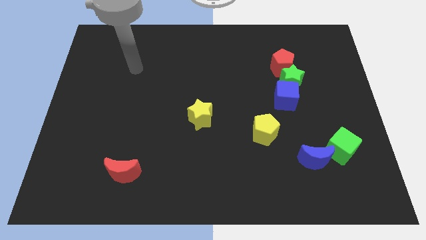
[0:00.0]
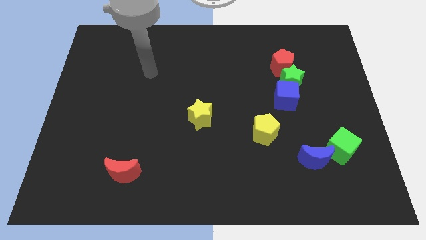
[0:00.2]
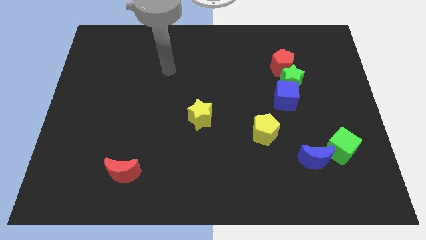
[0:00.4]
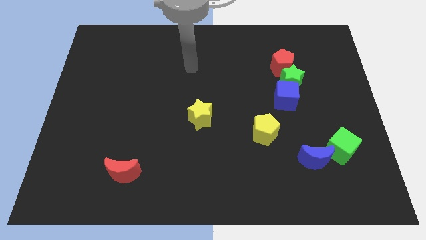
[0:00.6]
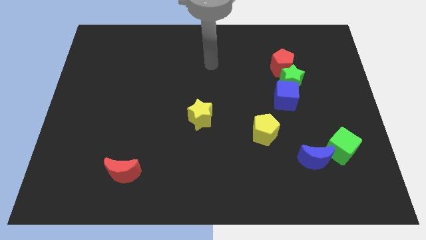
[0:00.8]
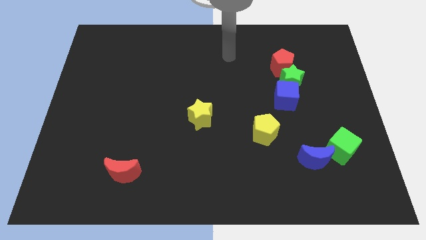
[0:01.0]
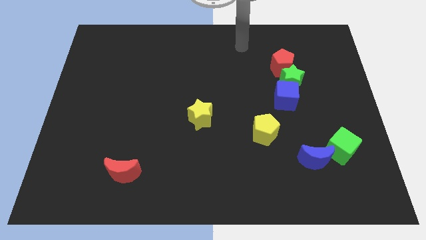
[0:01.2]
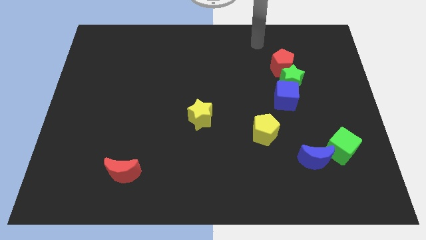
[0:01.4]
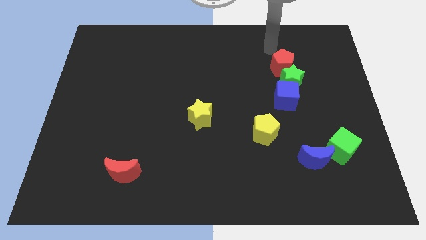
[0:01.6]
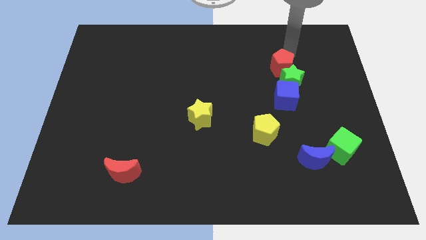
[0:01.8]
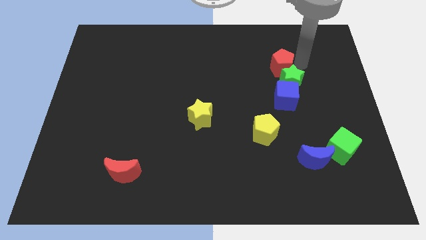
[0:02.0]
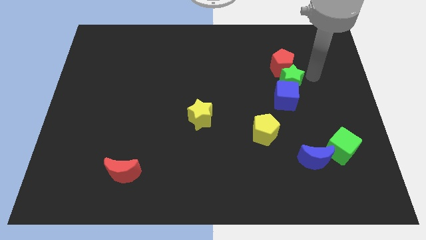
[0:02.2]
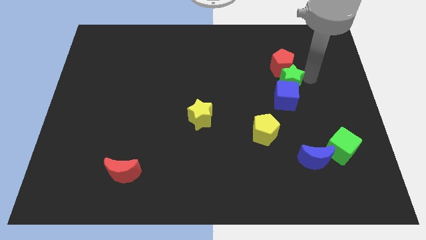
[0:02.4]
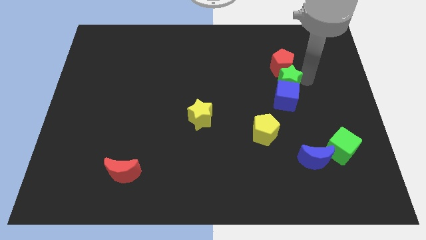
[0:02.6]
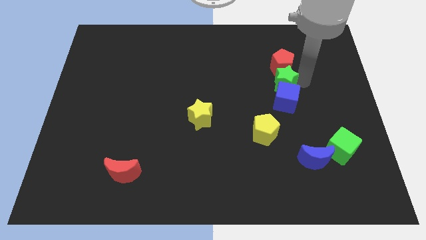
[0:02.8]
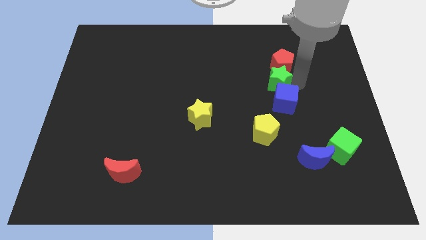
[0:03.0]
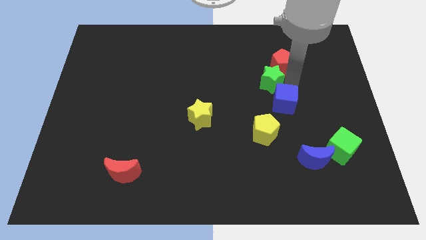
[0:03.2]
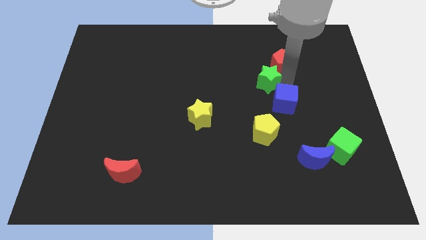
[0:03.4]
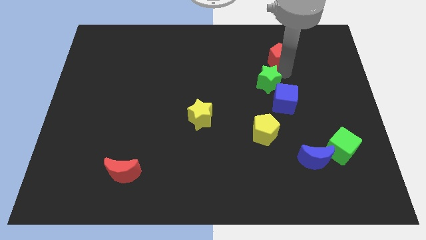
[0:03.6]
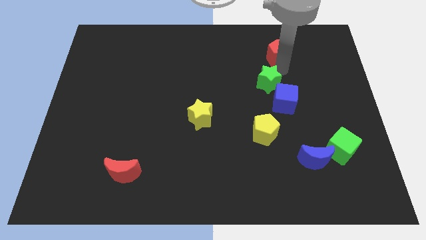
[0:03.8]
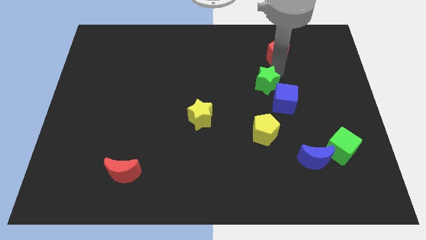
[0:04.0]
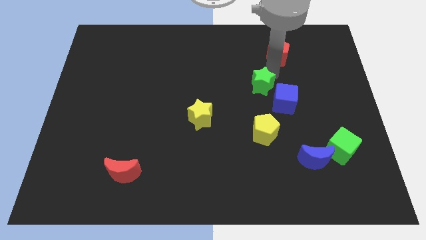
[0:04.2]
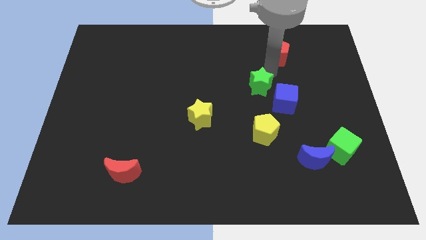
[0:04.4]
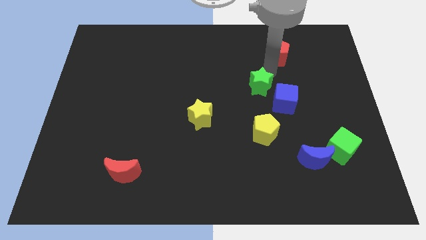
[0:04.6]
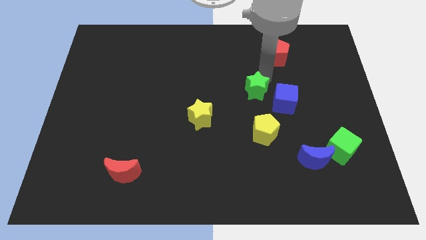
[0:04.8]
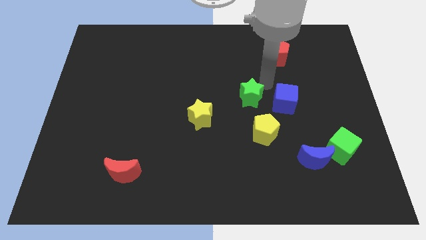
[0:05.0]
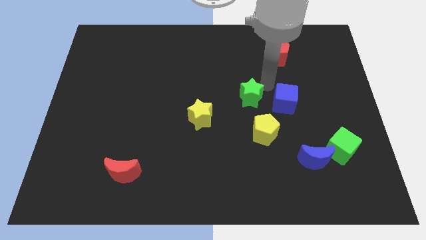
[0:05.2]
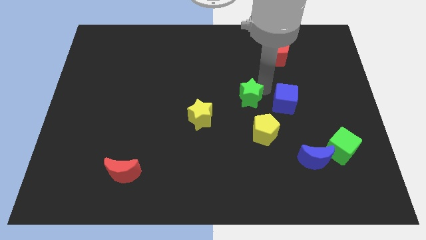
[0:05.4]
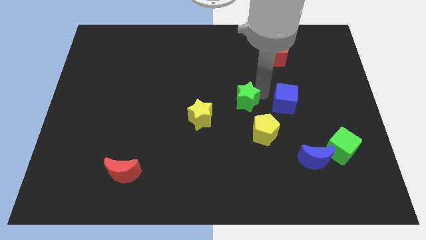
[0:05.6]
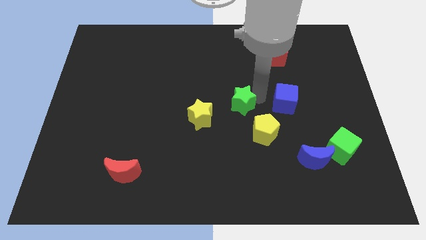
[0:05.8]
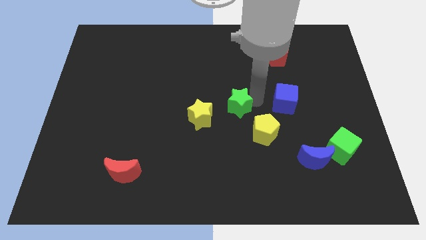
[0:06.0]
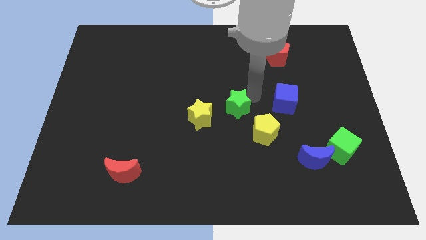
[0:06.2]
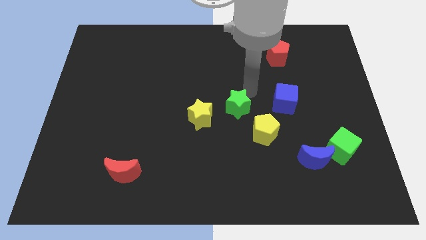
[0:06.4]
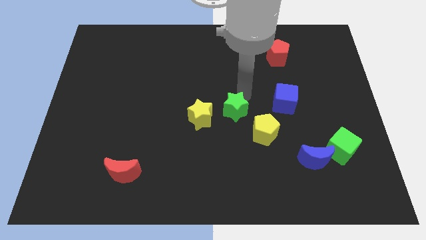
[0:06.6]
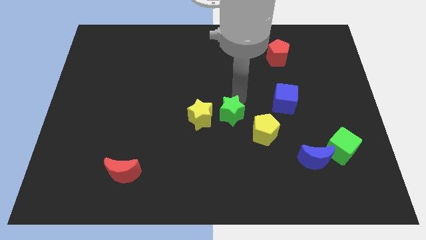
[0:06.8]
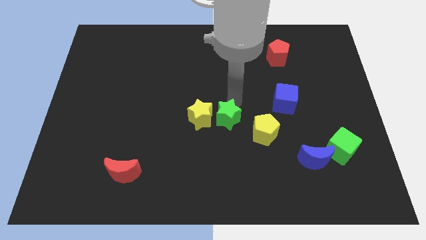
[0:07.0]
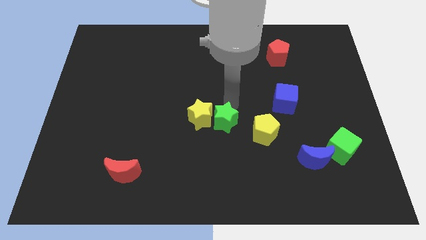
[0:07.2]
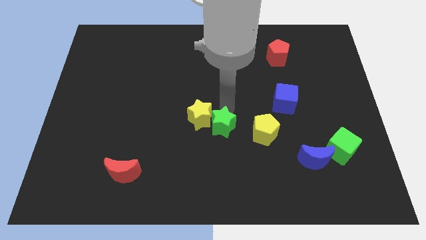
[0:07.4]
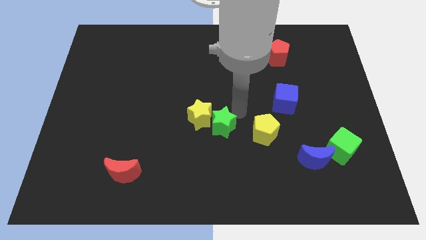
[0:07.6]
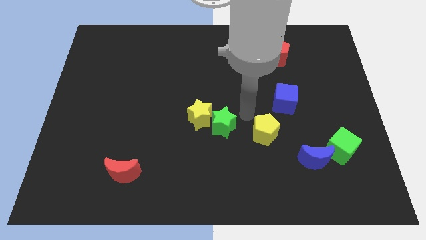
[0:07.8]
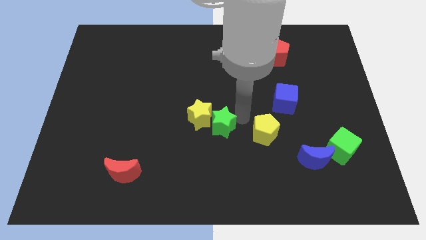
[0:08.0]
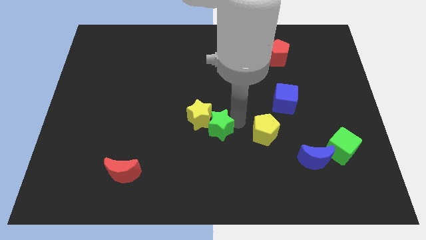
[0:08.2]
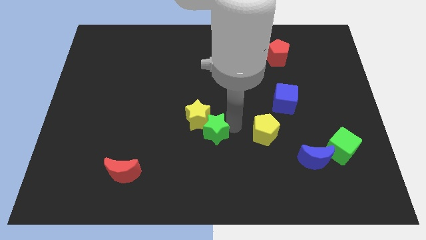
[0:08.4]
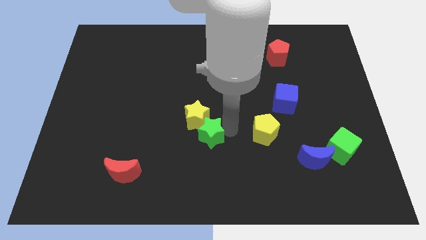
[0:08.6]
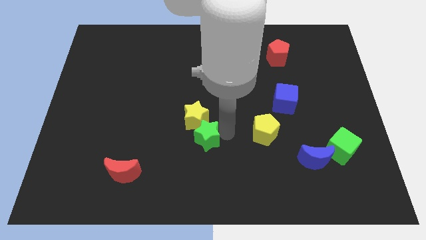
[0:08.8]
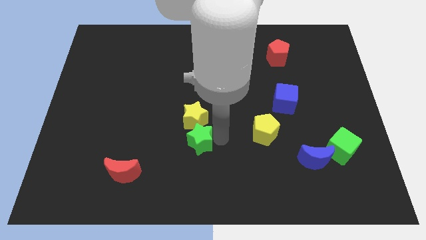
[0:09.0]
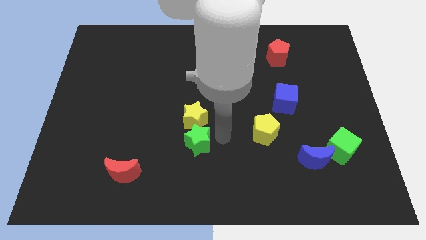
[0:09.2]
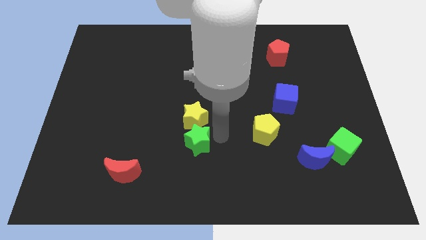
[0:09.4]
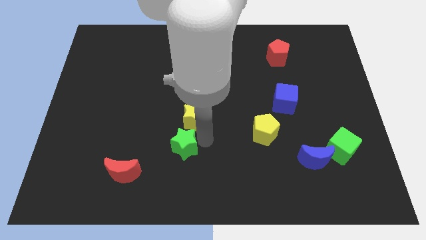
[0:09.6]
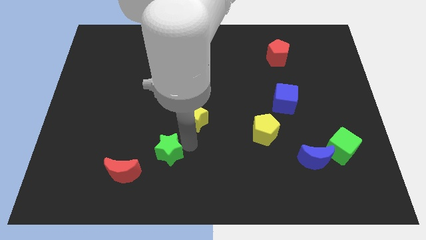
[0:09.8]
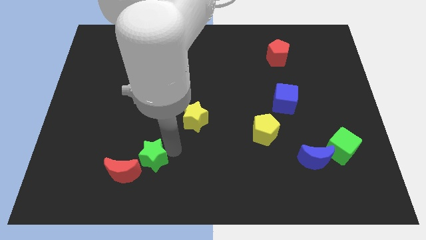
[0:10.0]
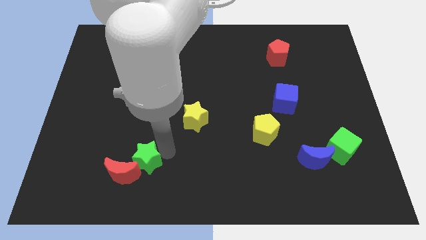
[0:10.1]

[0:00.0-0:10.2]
push the green star close to the red moon

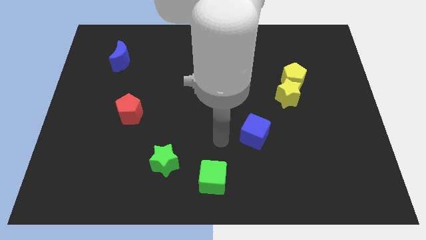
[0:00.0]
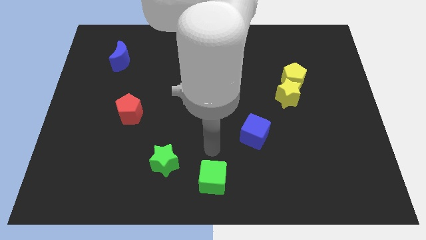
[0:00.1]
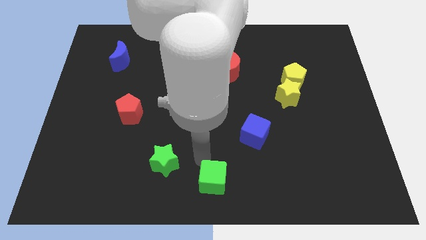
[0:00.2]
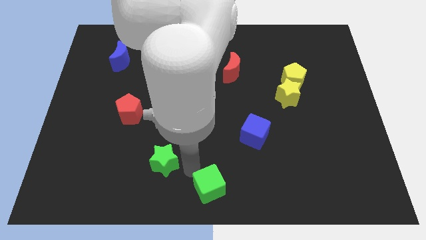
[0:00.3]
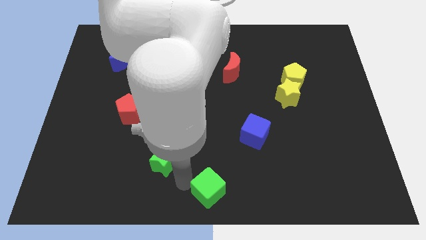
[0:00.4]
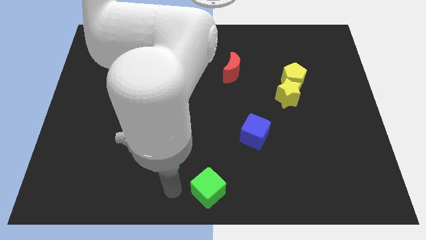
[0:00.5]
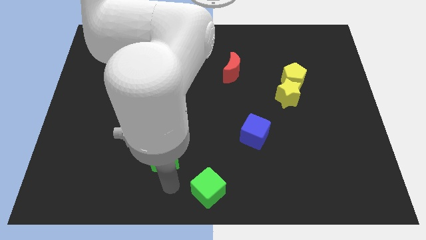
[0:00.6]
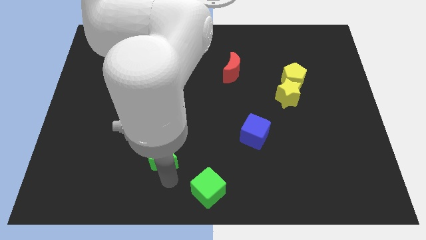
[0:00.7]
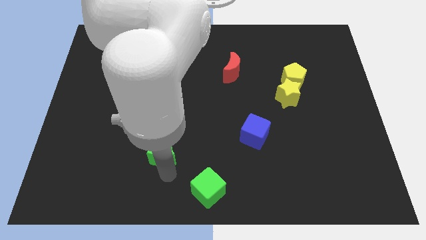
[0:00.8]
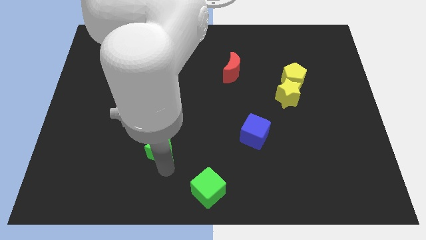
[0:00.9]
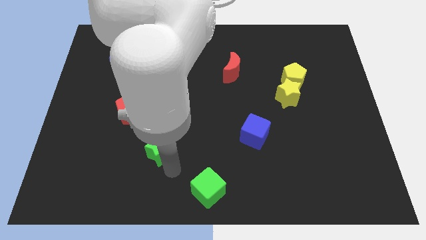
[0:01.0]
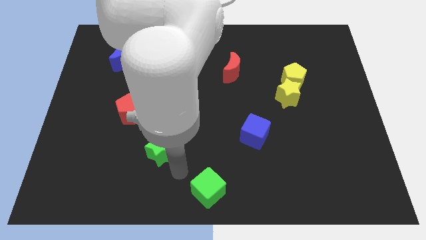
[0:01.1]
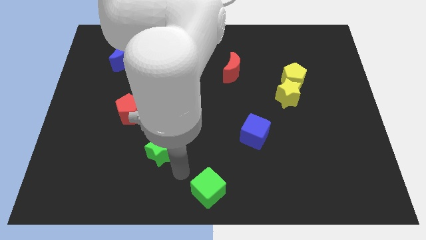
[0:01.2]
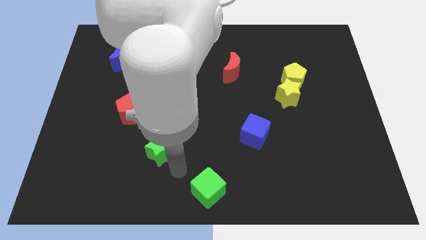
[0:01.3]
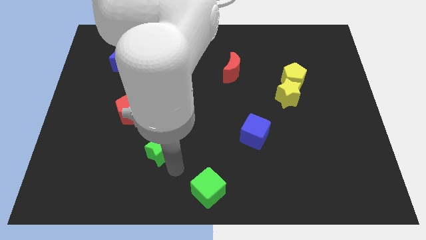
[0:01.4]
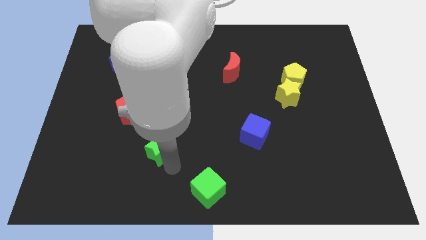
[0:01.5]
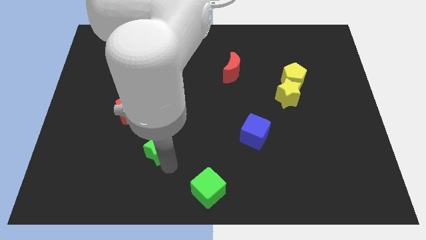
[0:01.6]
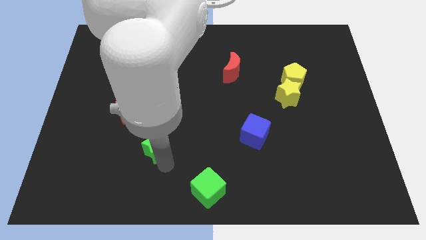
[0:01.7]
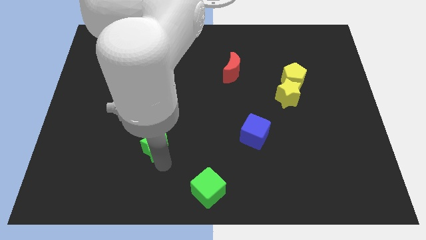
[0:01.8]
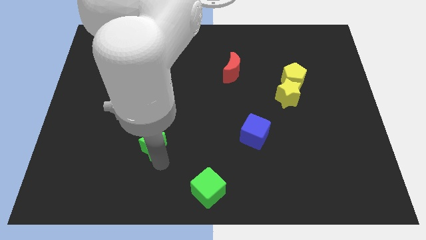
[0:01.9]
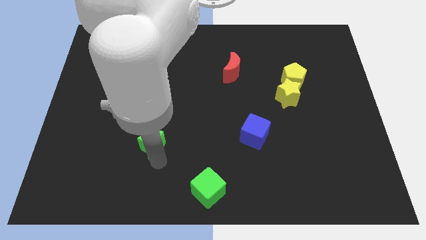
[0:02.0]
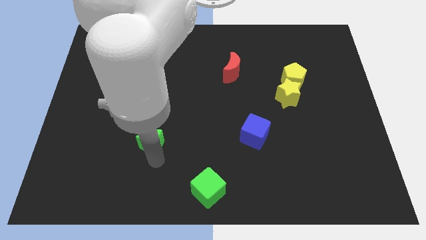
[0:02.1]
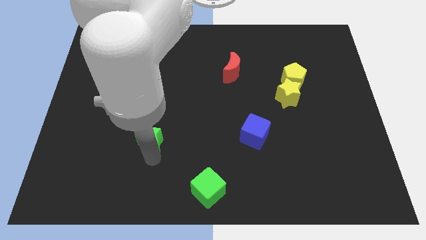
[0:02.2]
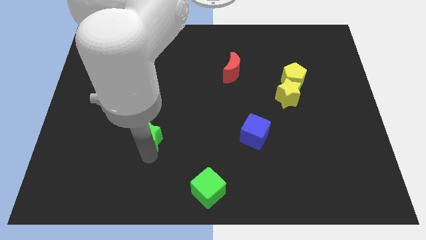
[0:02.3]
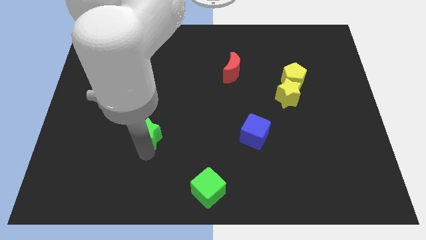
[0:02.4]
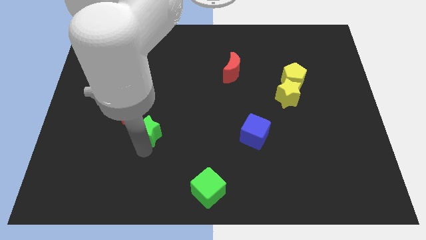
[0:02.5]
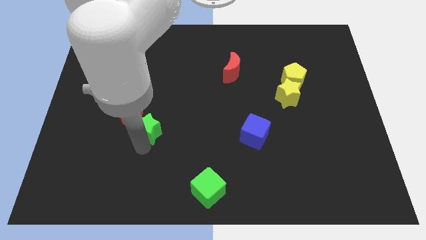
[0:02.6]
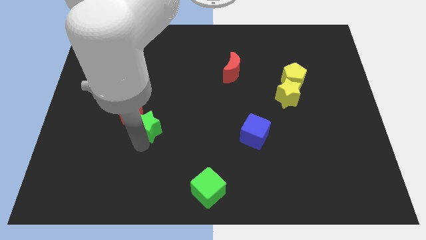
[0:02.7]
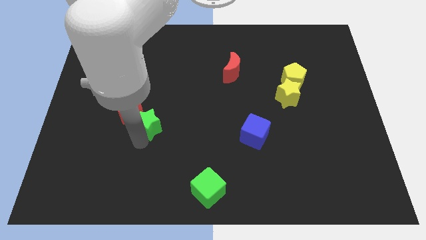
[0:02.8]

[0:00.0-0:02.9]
slide the green star towards the red pentagon
